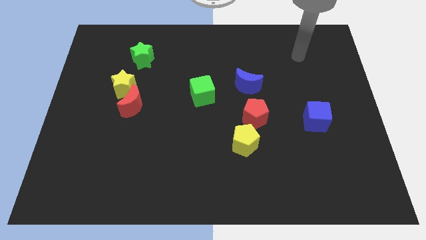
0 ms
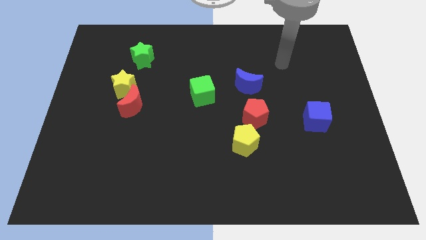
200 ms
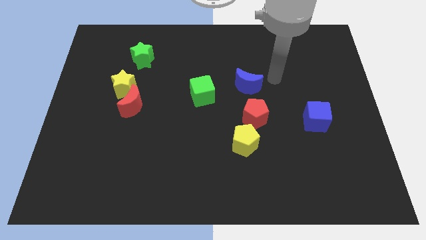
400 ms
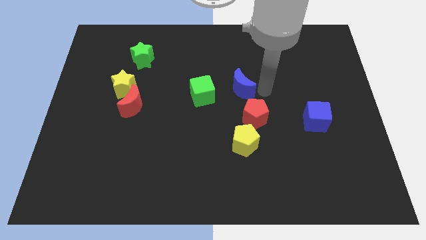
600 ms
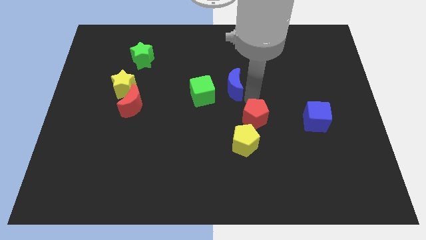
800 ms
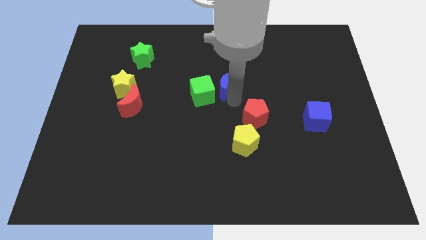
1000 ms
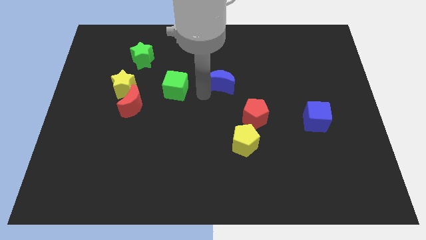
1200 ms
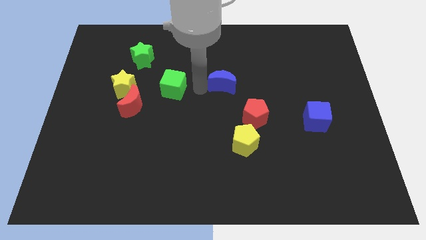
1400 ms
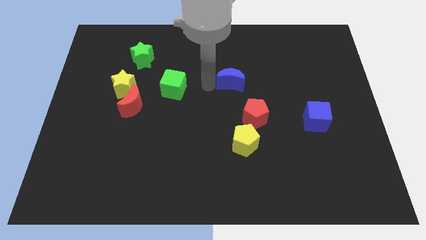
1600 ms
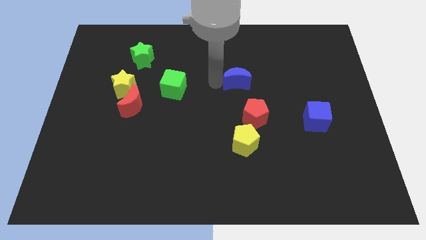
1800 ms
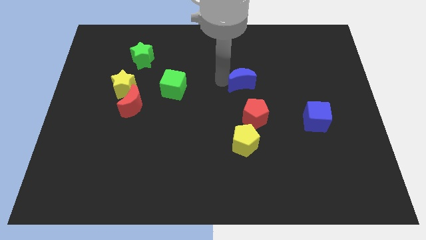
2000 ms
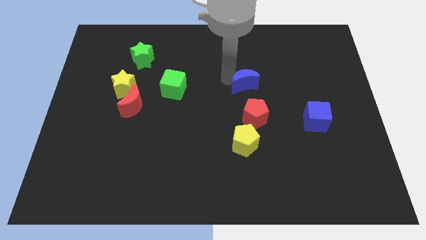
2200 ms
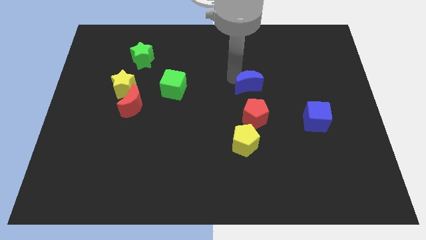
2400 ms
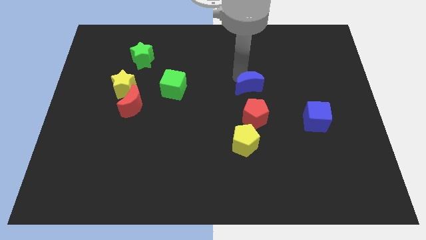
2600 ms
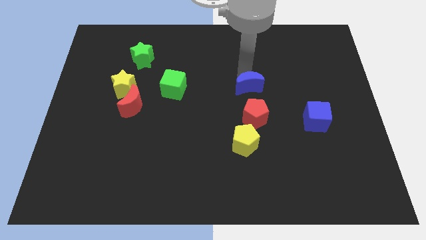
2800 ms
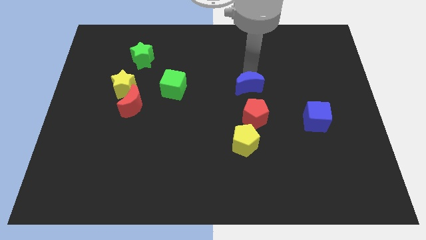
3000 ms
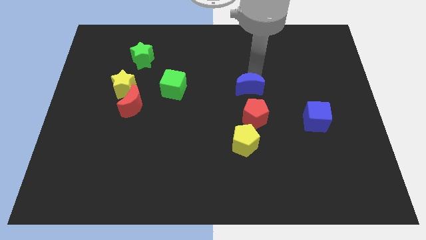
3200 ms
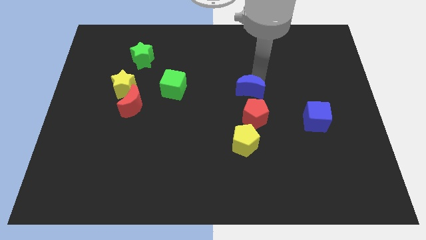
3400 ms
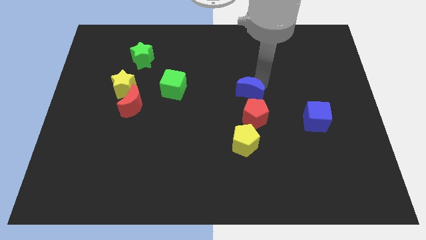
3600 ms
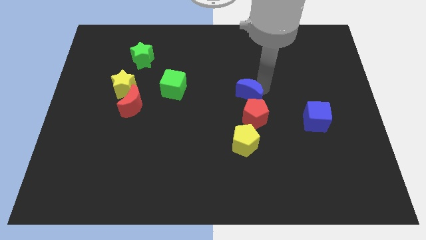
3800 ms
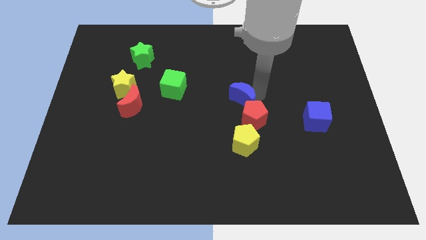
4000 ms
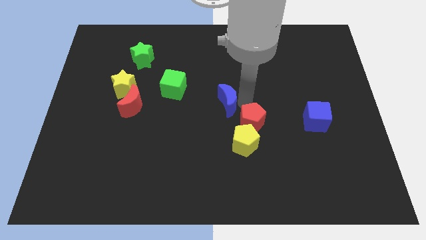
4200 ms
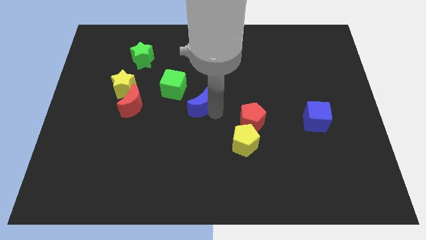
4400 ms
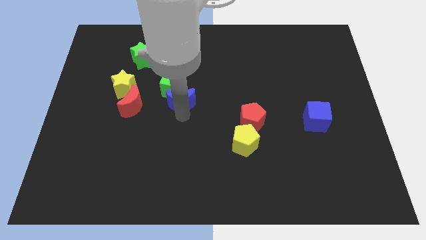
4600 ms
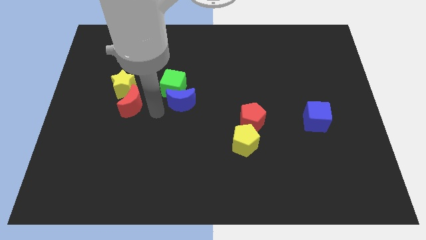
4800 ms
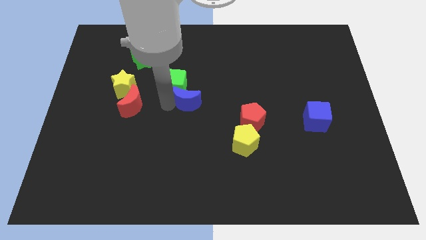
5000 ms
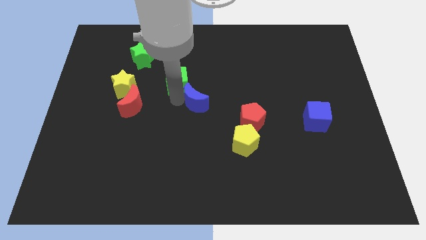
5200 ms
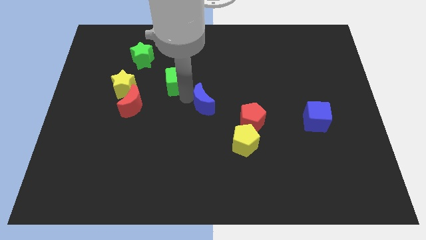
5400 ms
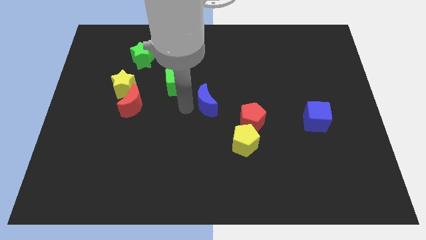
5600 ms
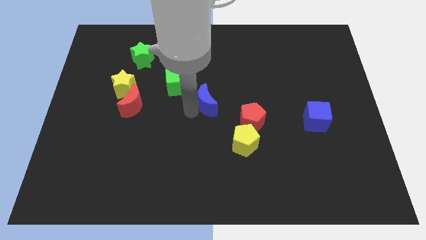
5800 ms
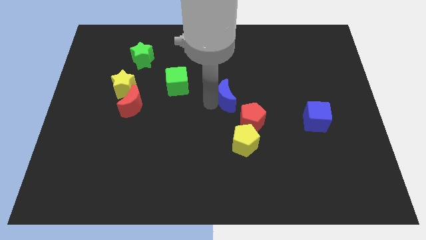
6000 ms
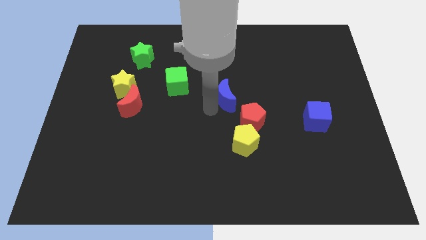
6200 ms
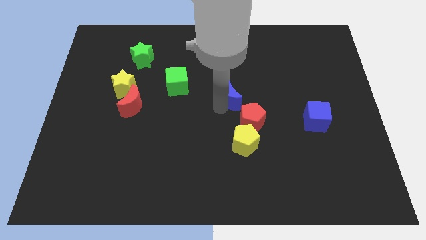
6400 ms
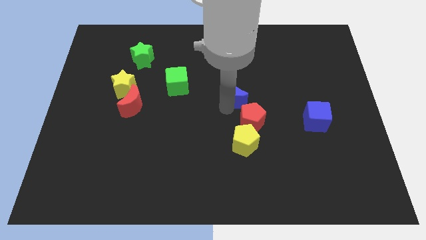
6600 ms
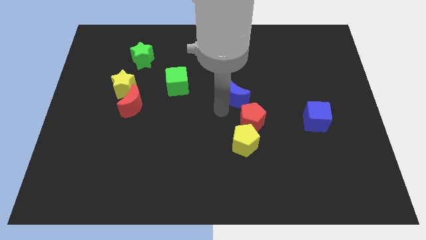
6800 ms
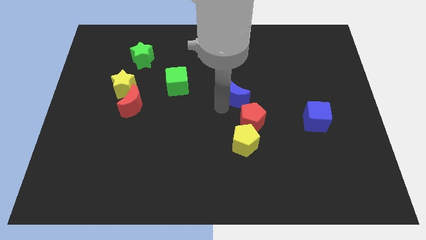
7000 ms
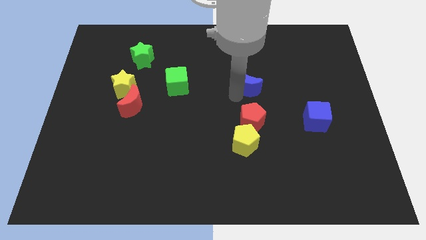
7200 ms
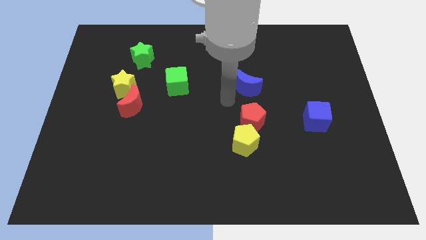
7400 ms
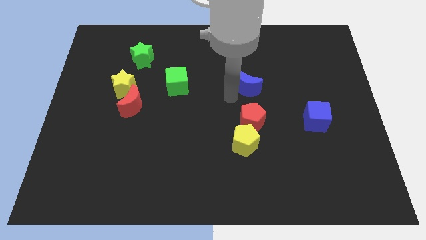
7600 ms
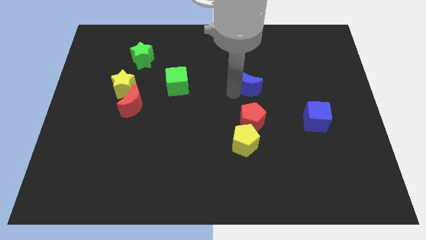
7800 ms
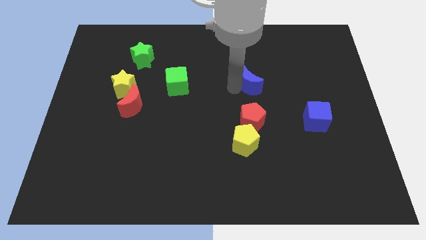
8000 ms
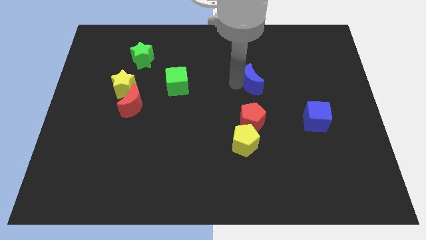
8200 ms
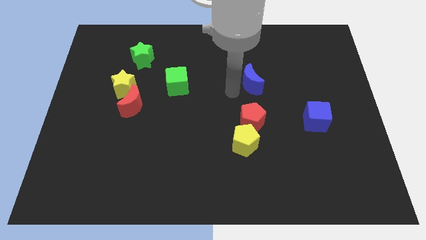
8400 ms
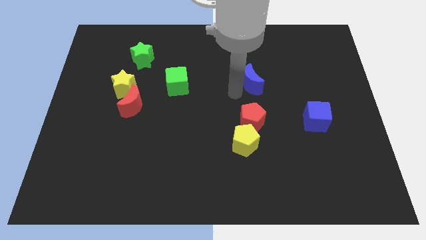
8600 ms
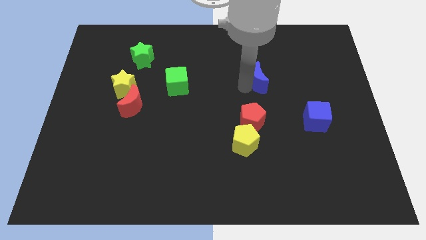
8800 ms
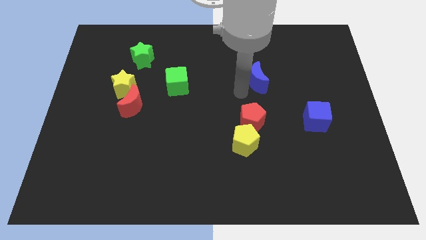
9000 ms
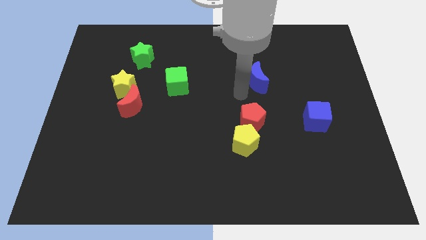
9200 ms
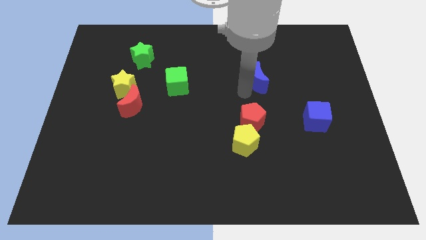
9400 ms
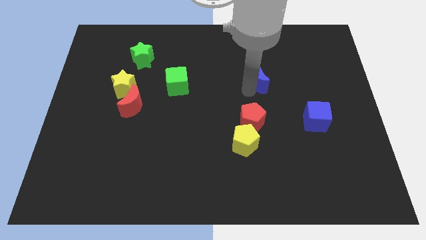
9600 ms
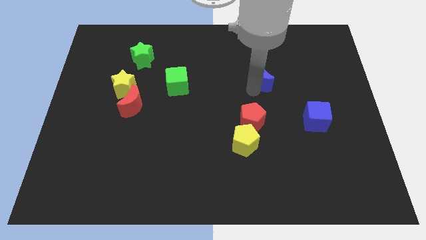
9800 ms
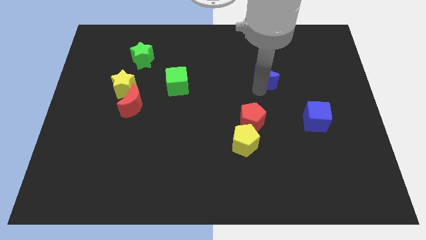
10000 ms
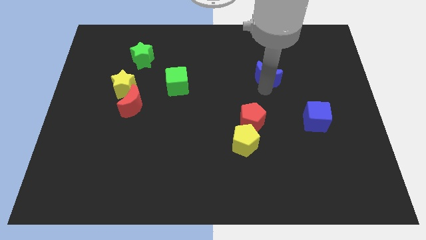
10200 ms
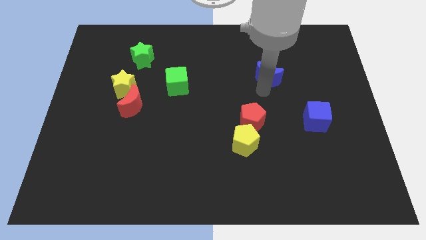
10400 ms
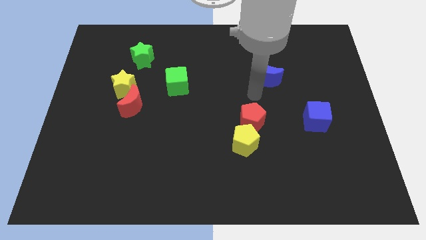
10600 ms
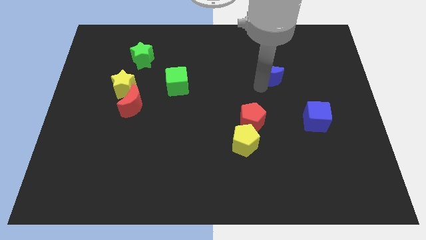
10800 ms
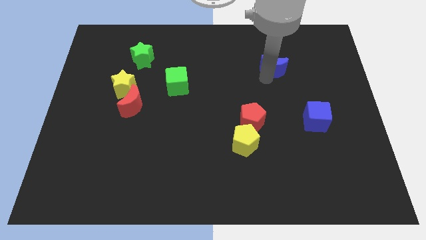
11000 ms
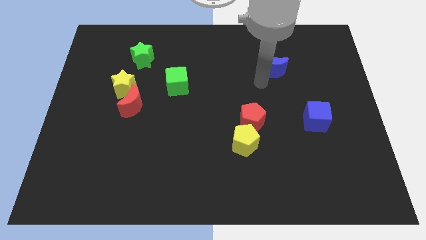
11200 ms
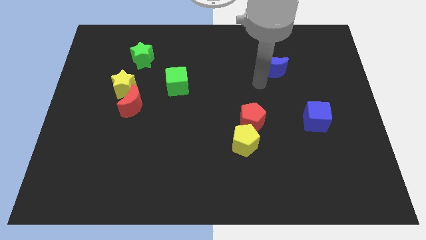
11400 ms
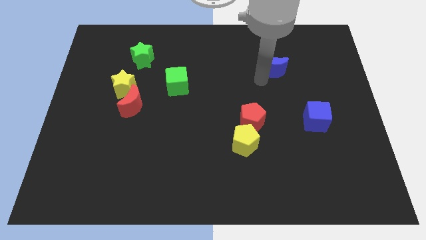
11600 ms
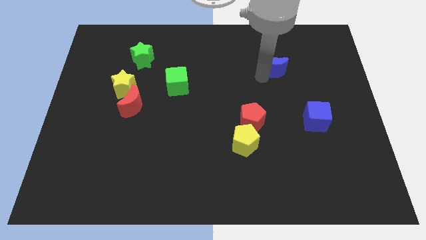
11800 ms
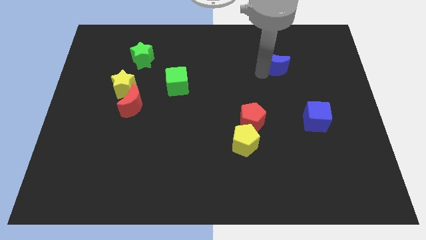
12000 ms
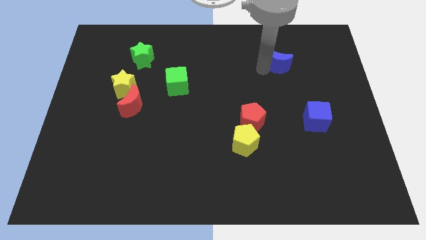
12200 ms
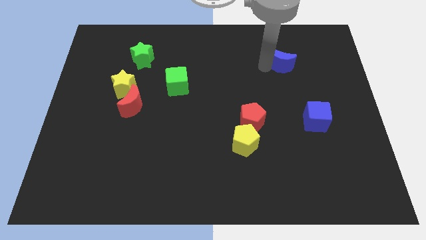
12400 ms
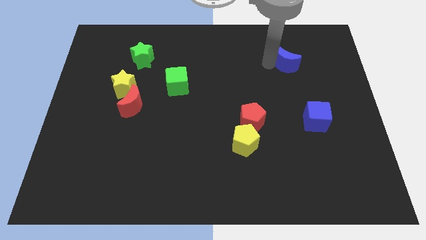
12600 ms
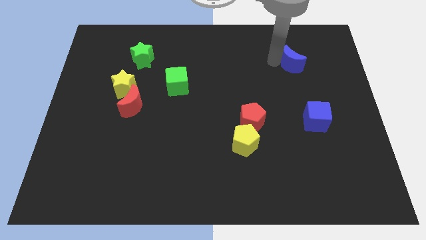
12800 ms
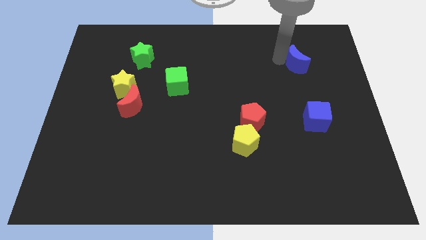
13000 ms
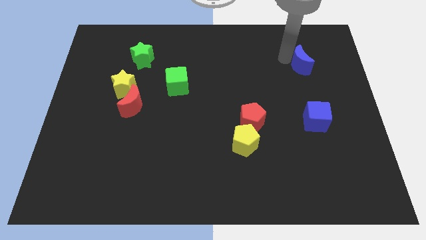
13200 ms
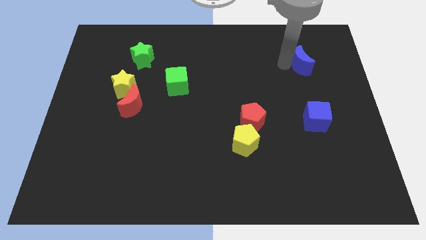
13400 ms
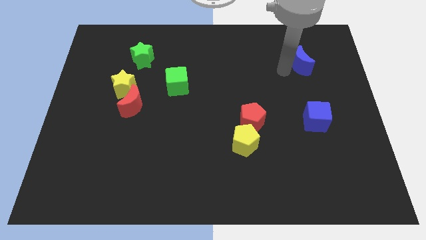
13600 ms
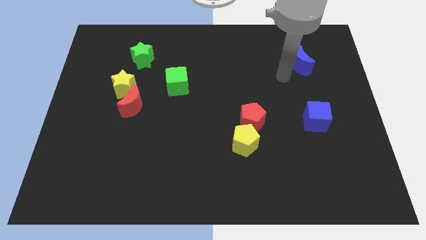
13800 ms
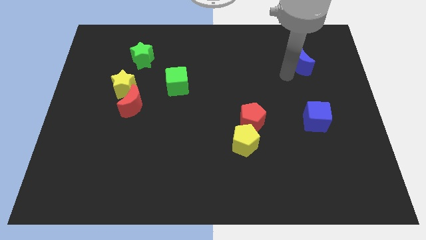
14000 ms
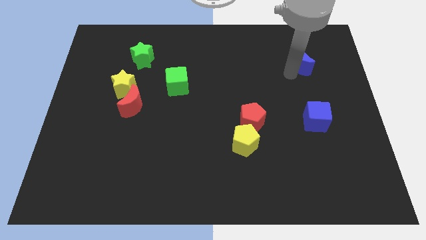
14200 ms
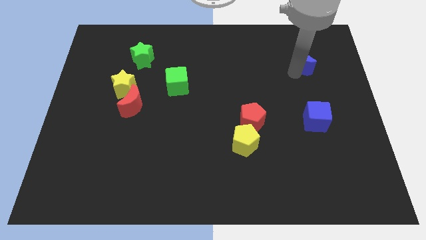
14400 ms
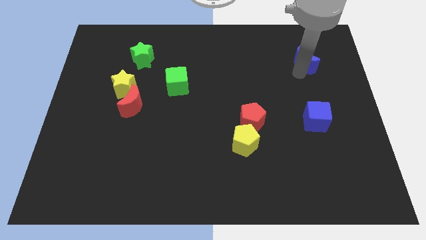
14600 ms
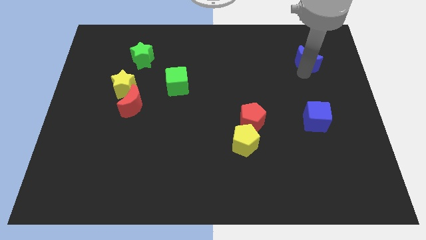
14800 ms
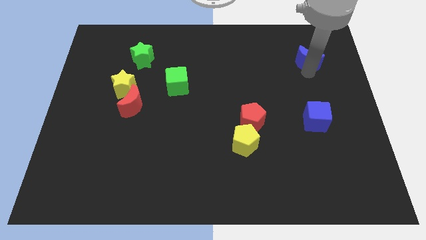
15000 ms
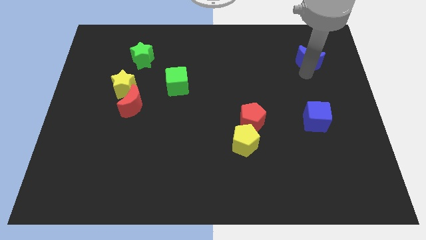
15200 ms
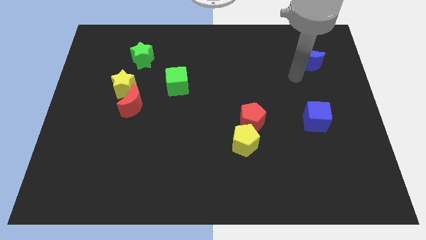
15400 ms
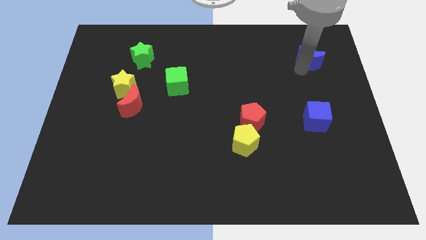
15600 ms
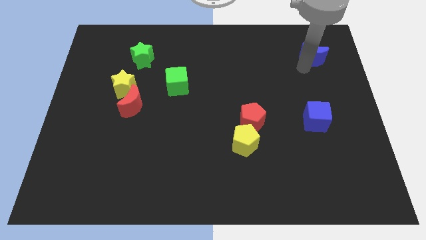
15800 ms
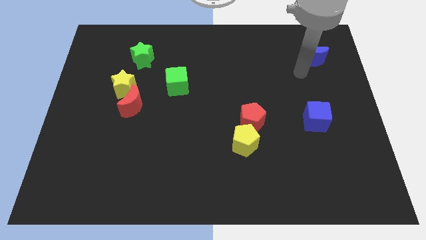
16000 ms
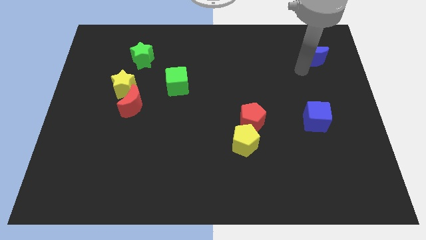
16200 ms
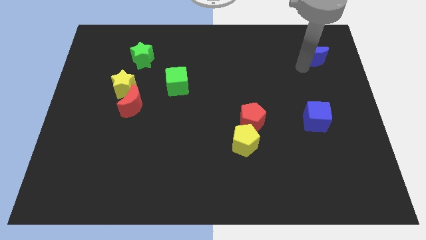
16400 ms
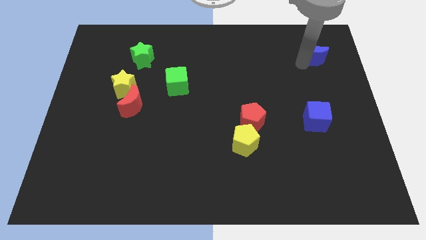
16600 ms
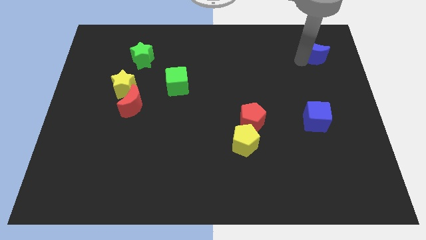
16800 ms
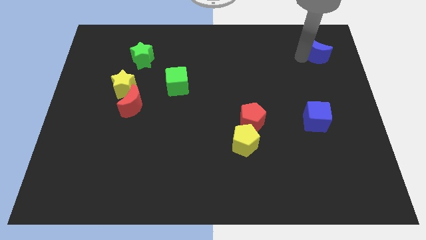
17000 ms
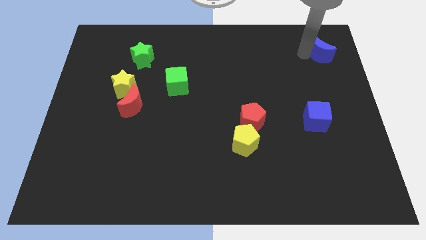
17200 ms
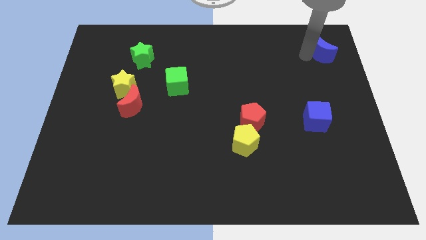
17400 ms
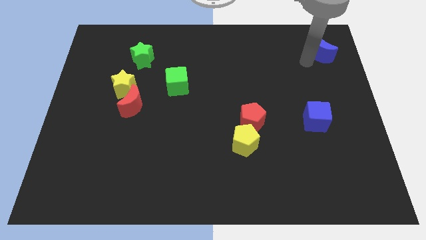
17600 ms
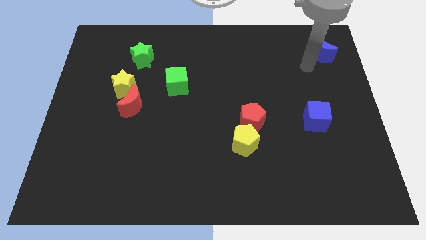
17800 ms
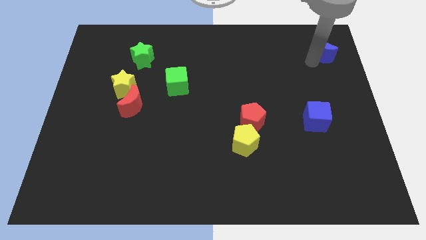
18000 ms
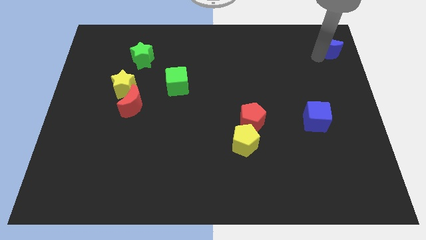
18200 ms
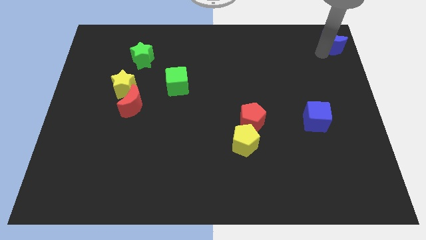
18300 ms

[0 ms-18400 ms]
move the blue moon to the top right of the board
